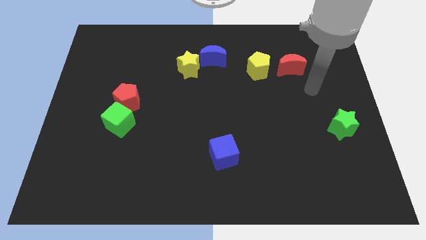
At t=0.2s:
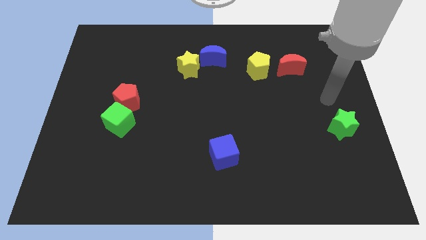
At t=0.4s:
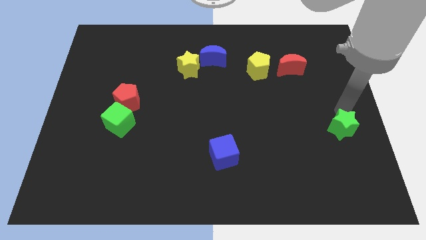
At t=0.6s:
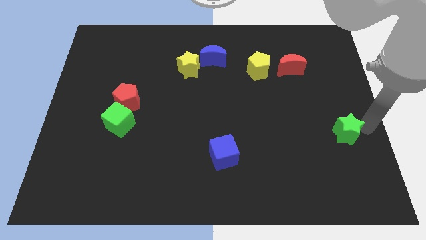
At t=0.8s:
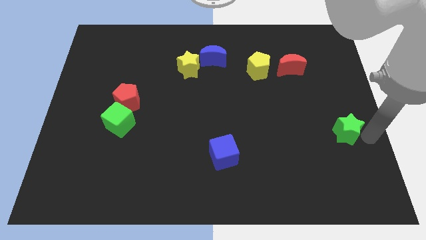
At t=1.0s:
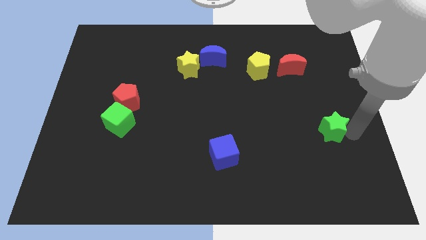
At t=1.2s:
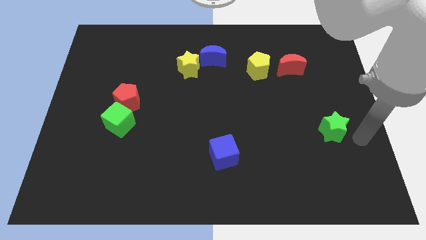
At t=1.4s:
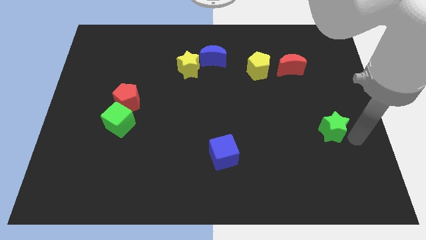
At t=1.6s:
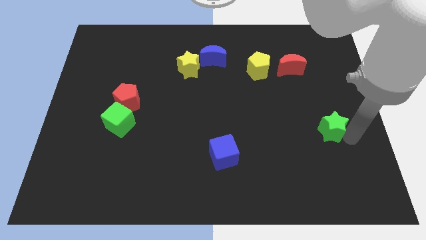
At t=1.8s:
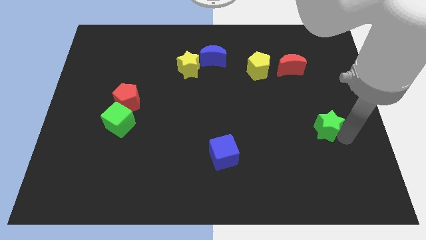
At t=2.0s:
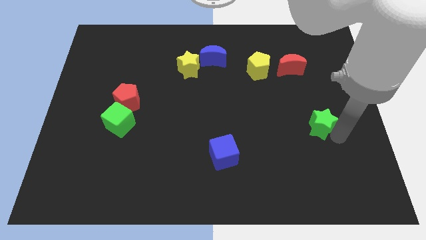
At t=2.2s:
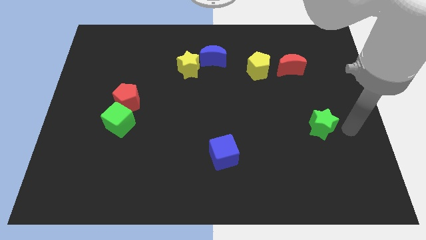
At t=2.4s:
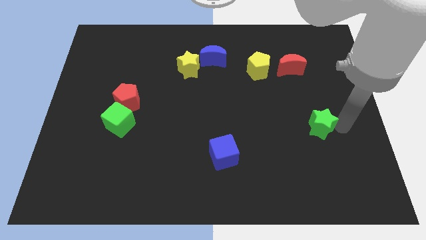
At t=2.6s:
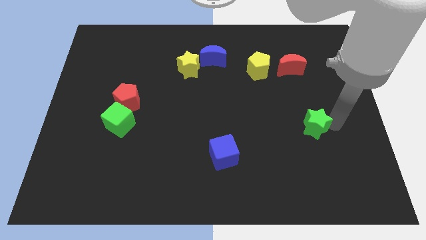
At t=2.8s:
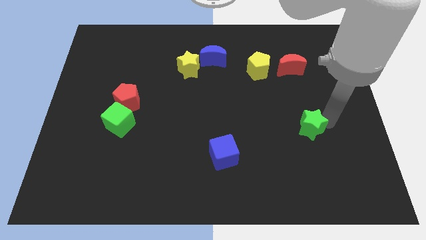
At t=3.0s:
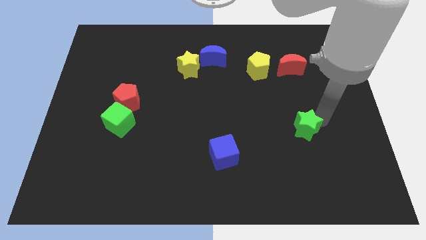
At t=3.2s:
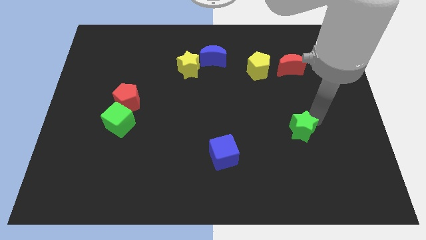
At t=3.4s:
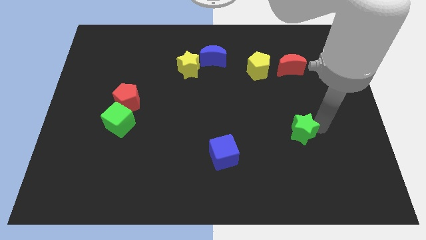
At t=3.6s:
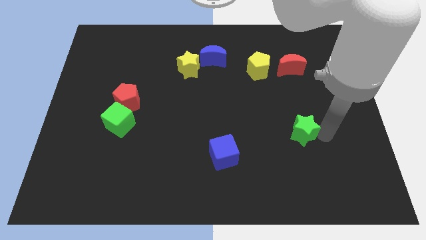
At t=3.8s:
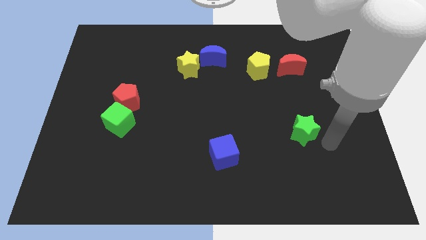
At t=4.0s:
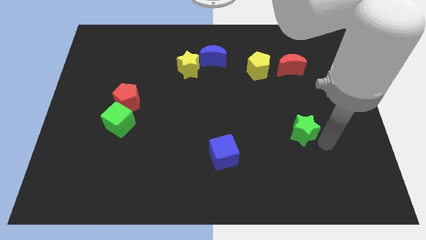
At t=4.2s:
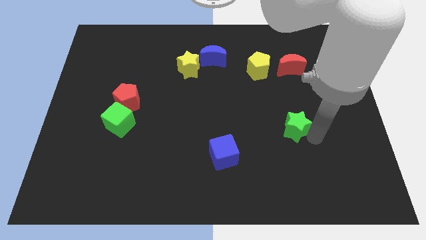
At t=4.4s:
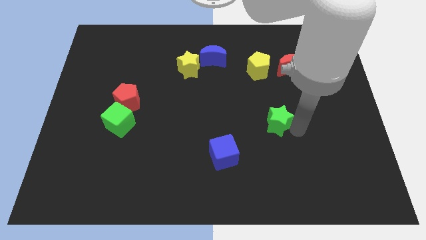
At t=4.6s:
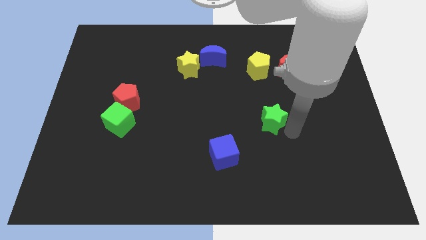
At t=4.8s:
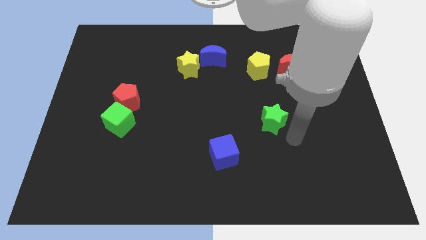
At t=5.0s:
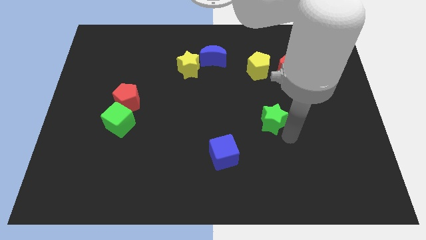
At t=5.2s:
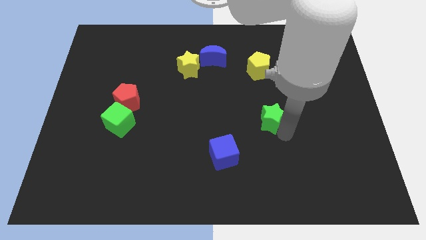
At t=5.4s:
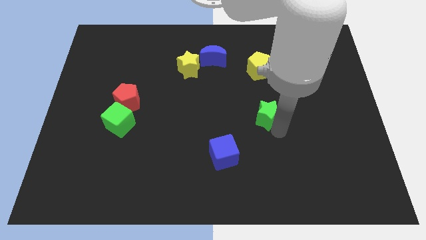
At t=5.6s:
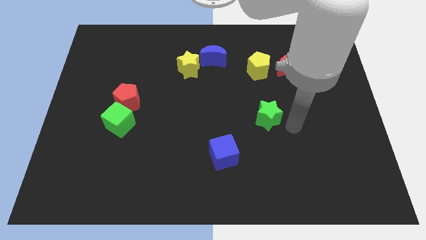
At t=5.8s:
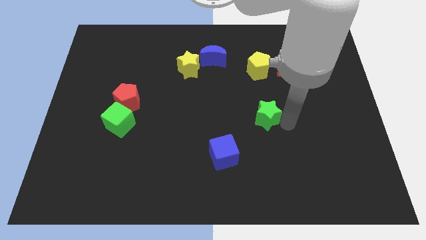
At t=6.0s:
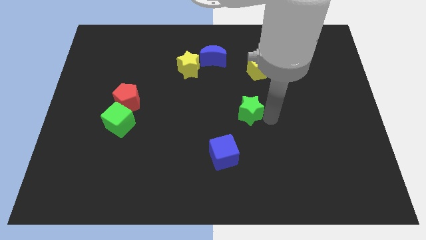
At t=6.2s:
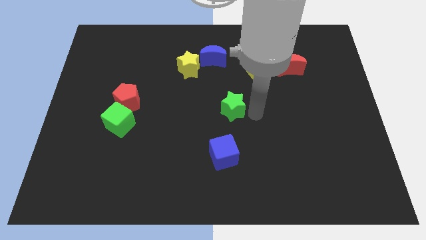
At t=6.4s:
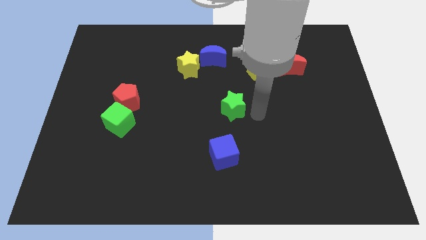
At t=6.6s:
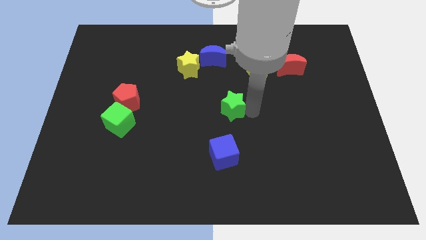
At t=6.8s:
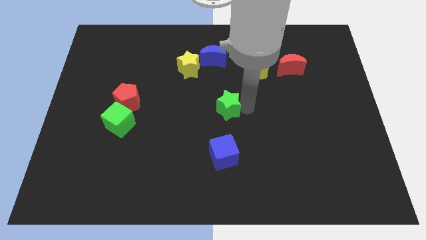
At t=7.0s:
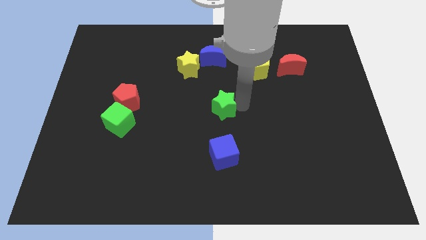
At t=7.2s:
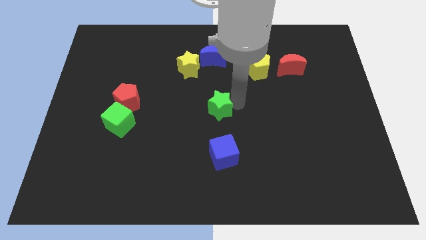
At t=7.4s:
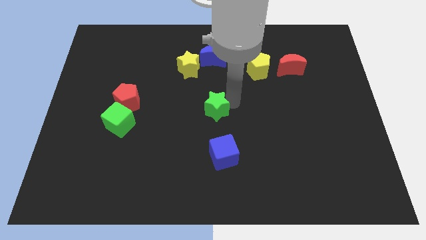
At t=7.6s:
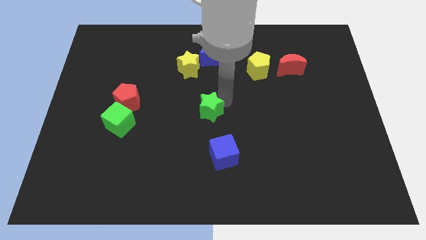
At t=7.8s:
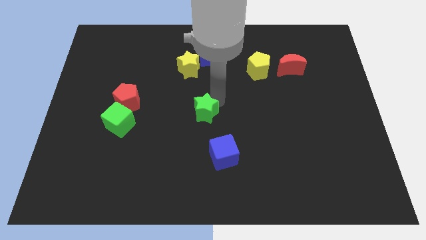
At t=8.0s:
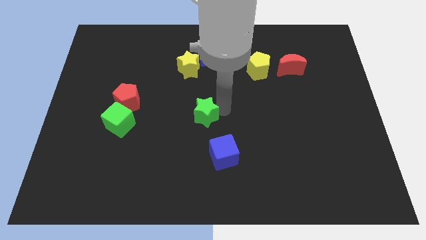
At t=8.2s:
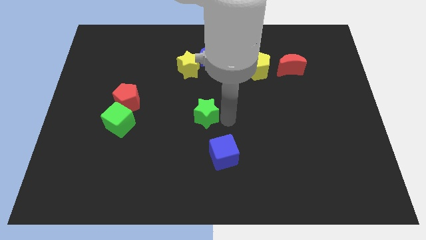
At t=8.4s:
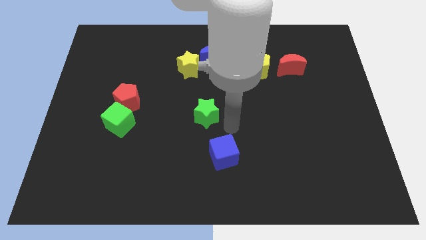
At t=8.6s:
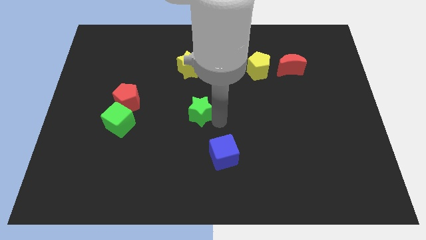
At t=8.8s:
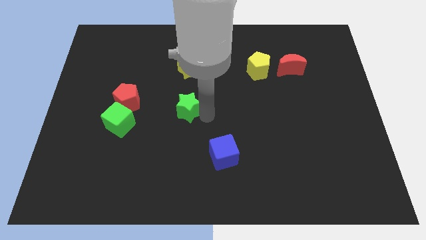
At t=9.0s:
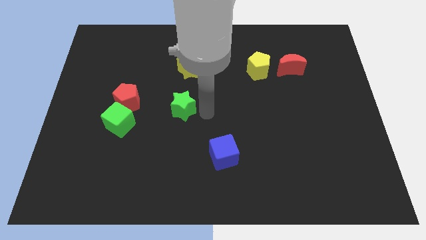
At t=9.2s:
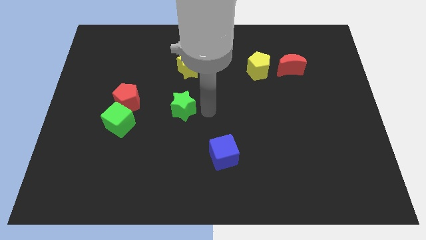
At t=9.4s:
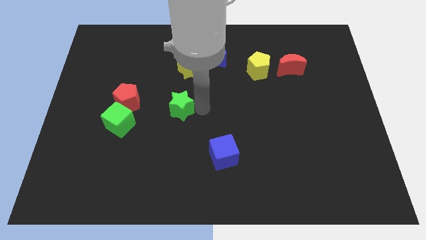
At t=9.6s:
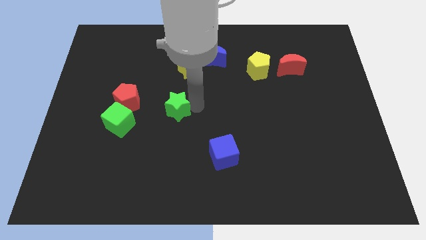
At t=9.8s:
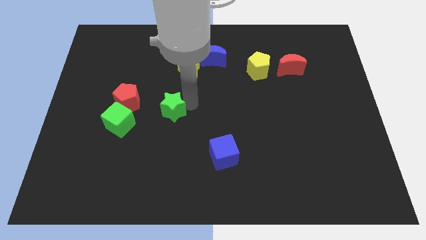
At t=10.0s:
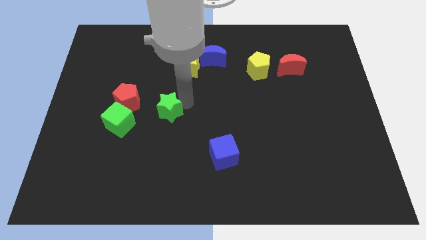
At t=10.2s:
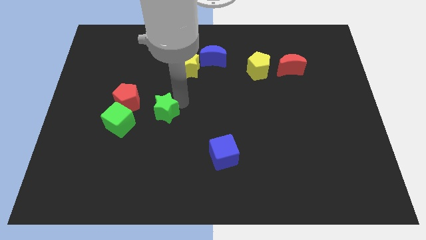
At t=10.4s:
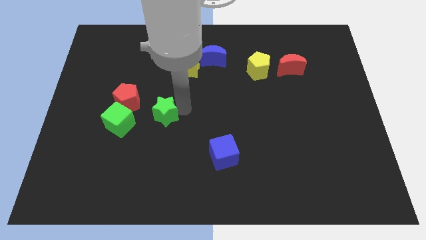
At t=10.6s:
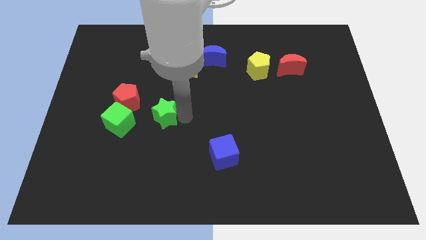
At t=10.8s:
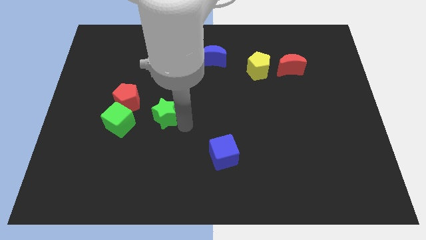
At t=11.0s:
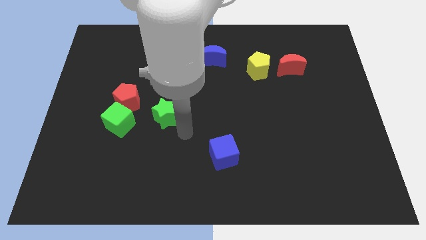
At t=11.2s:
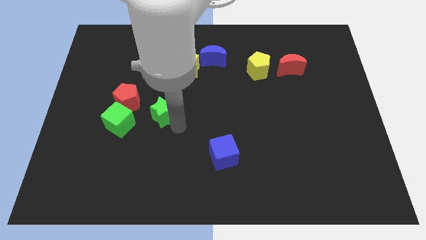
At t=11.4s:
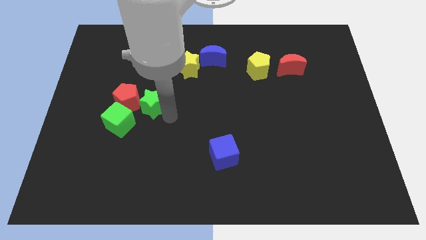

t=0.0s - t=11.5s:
slide the green star to the red pentagon
